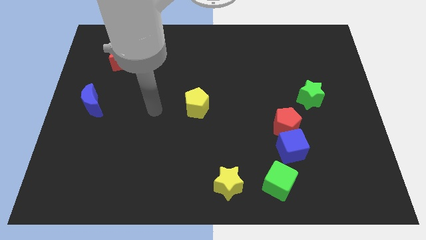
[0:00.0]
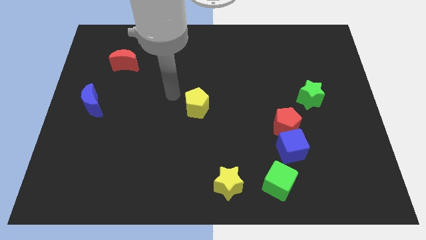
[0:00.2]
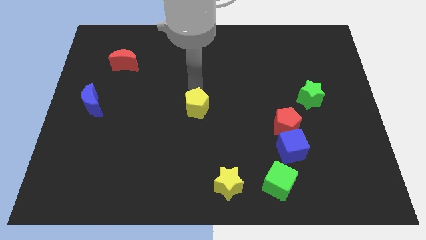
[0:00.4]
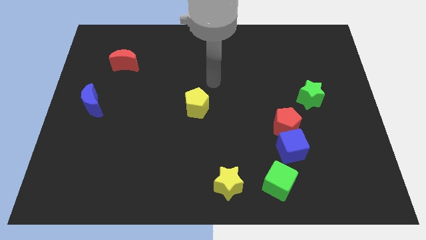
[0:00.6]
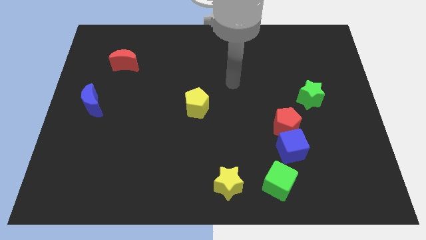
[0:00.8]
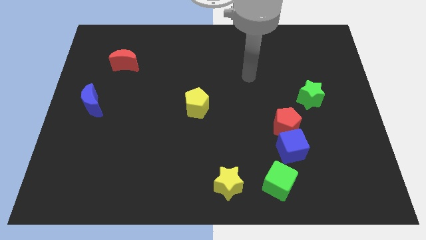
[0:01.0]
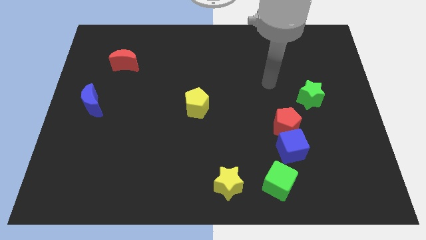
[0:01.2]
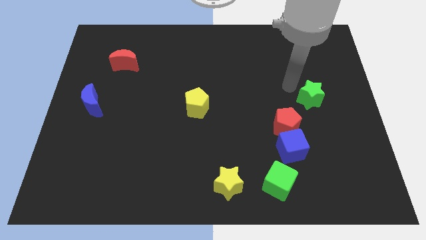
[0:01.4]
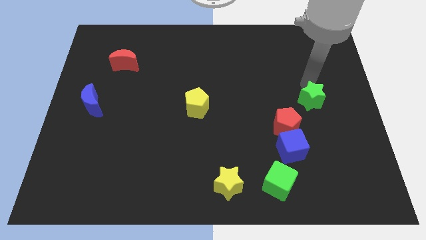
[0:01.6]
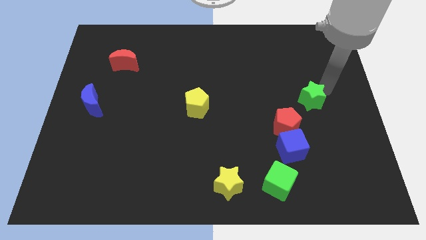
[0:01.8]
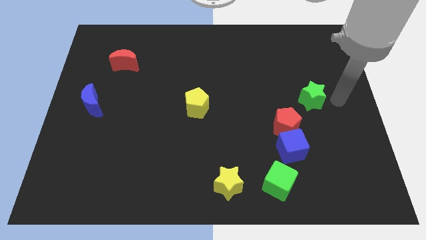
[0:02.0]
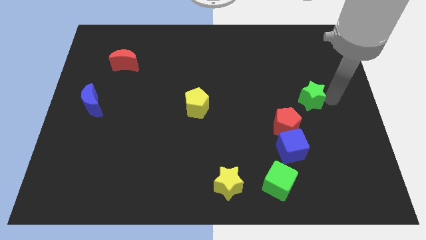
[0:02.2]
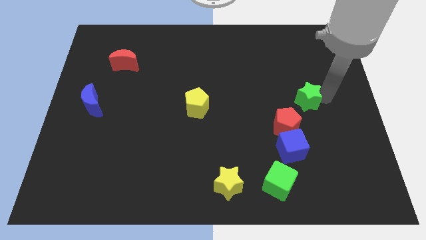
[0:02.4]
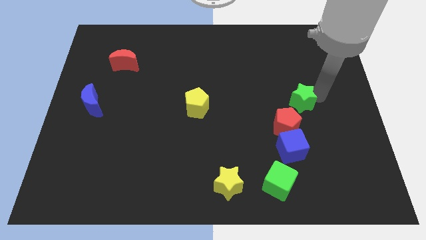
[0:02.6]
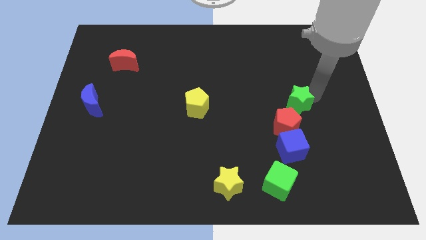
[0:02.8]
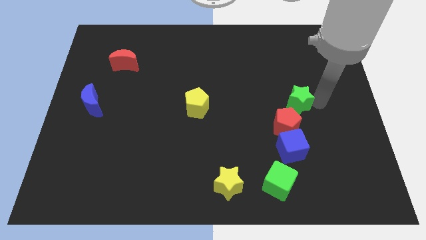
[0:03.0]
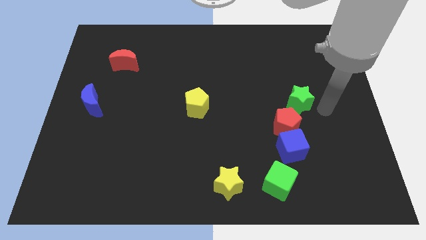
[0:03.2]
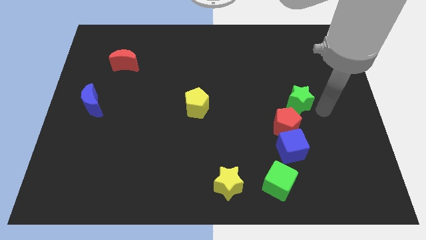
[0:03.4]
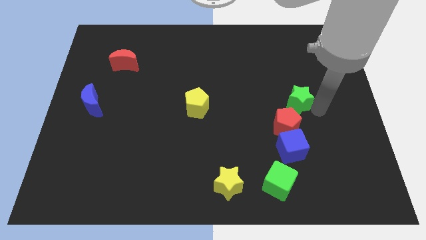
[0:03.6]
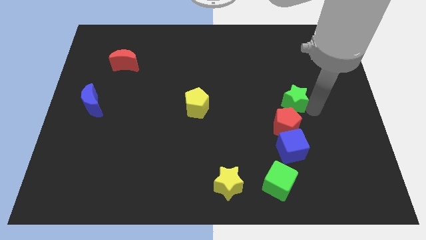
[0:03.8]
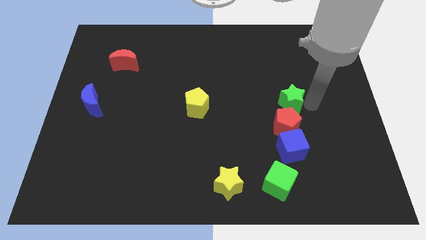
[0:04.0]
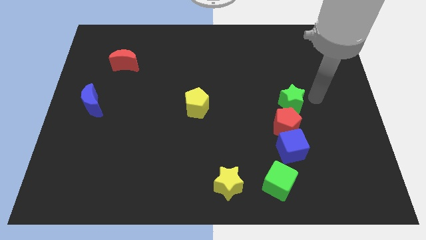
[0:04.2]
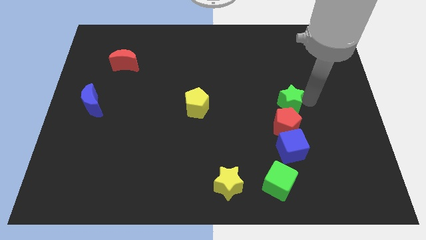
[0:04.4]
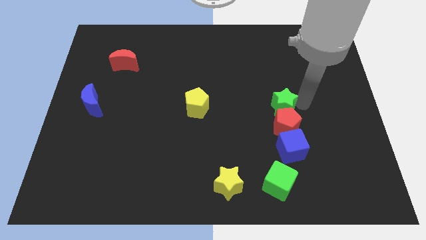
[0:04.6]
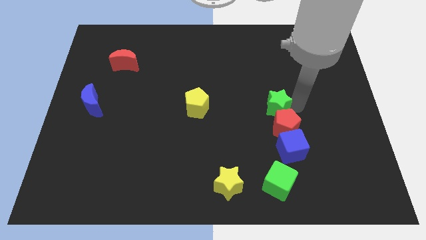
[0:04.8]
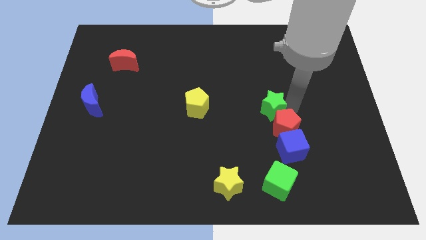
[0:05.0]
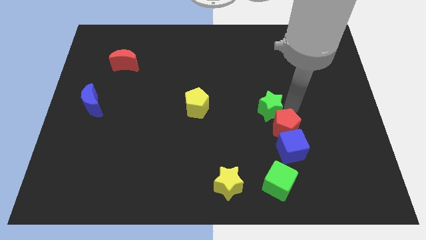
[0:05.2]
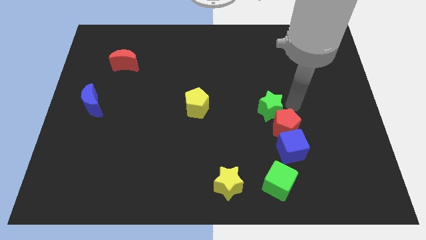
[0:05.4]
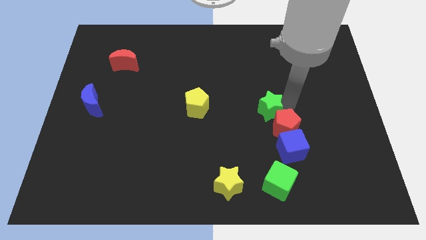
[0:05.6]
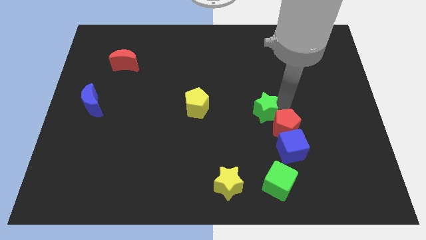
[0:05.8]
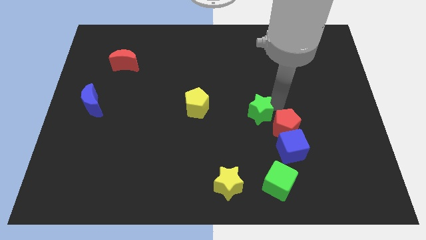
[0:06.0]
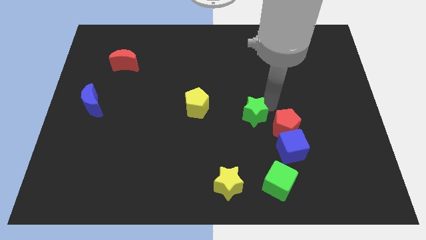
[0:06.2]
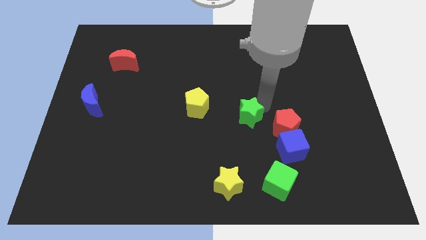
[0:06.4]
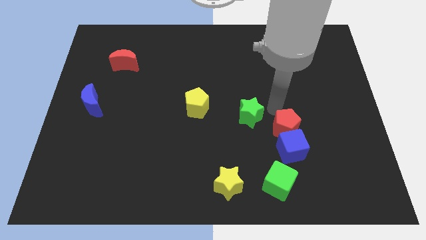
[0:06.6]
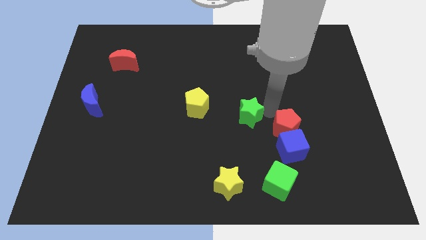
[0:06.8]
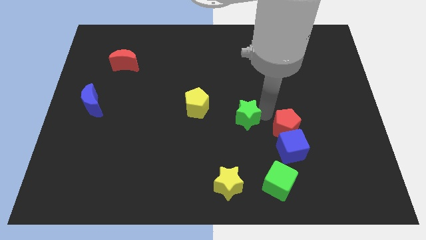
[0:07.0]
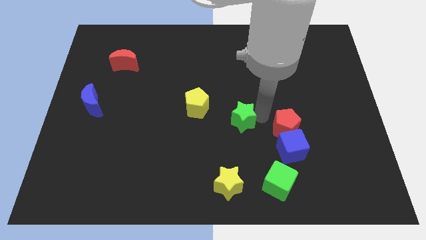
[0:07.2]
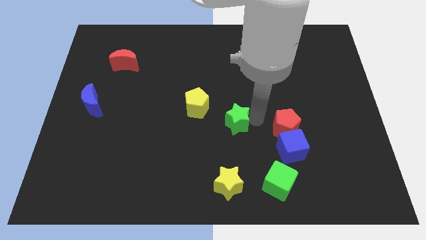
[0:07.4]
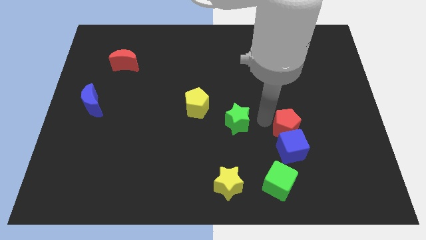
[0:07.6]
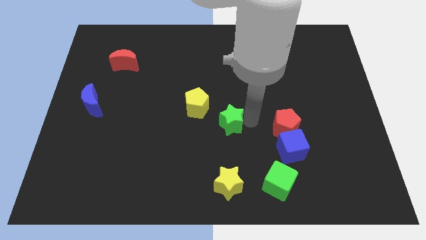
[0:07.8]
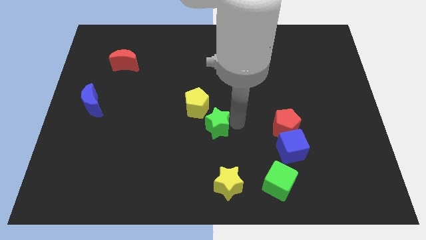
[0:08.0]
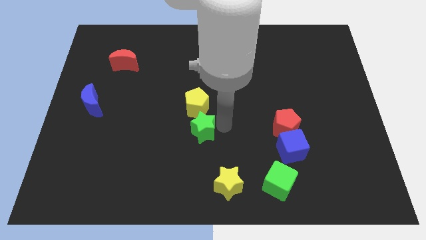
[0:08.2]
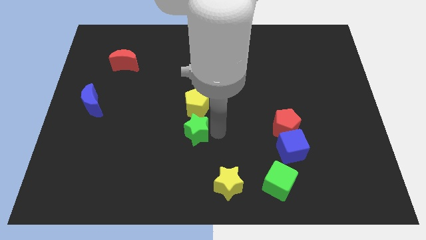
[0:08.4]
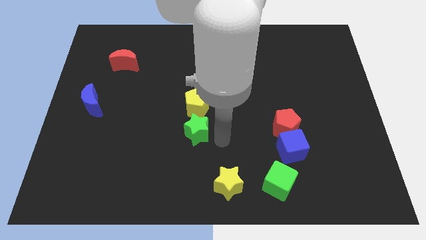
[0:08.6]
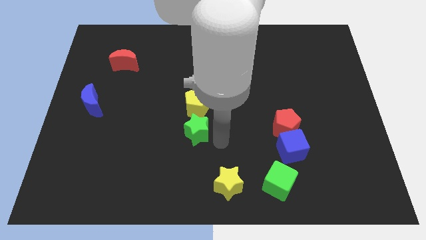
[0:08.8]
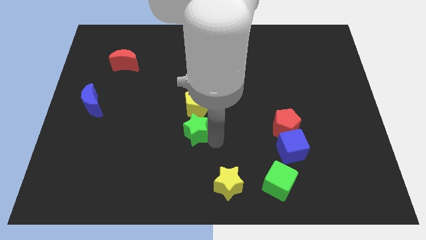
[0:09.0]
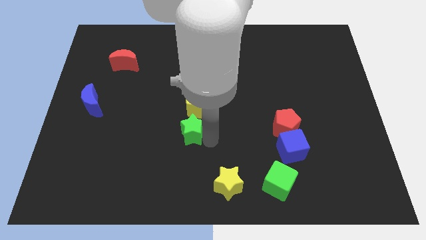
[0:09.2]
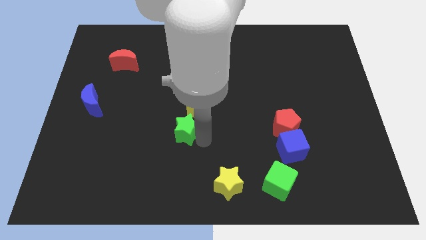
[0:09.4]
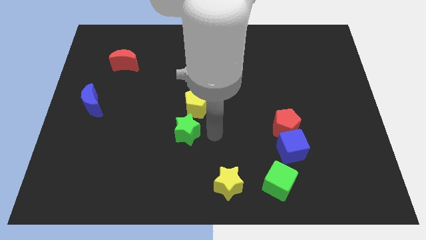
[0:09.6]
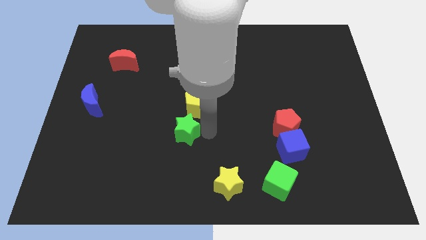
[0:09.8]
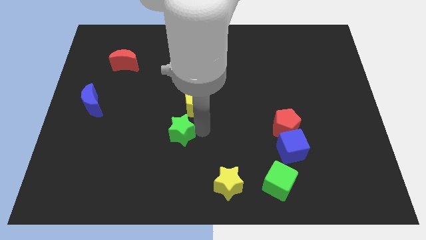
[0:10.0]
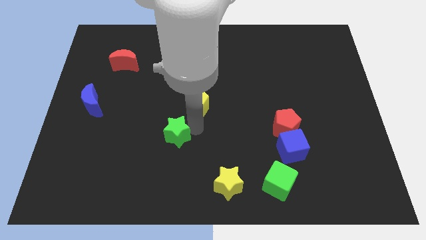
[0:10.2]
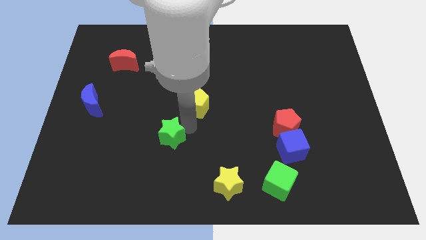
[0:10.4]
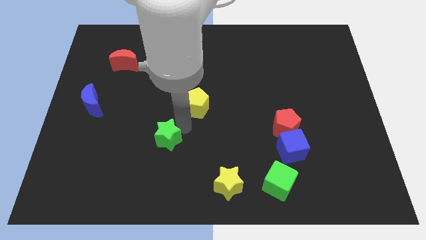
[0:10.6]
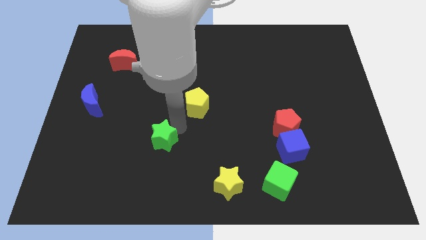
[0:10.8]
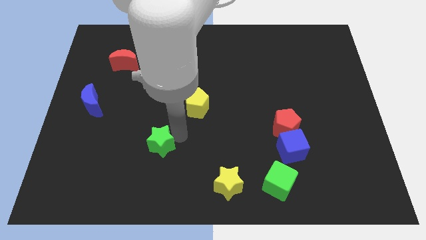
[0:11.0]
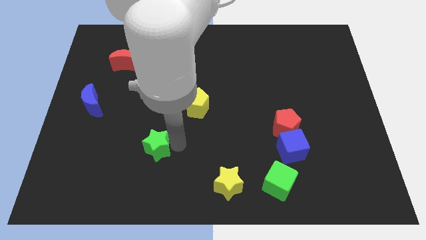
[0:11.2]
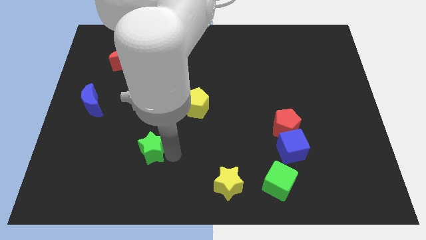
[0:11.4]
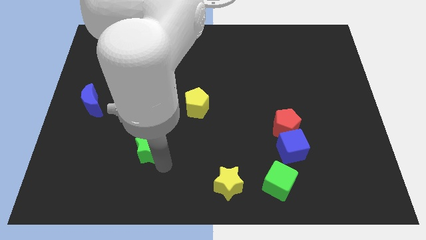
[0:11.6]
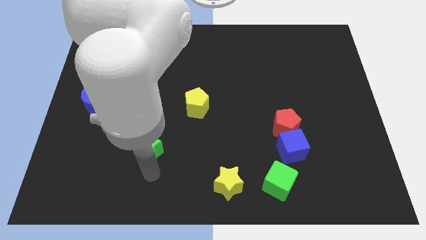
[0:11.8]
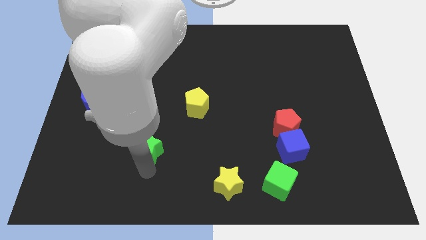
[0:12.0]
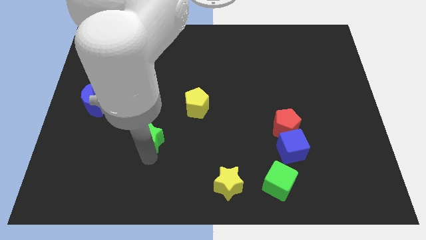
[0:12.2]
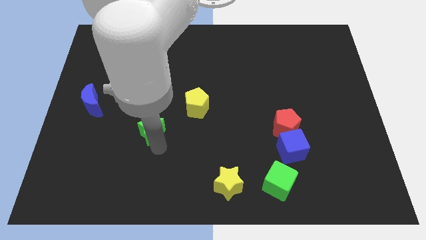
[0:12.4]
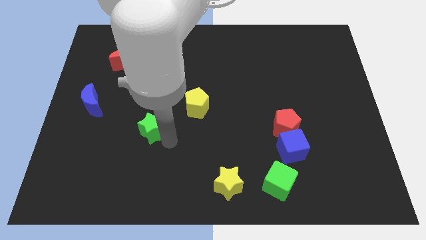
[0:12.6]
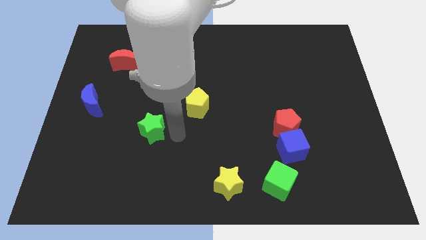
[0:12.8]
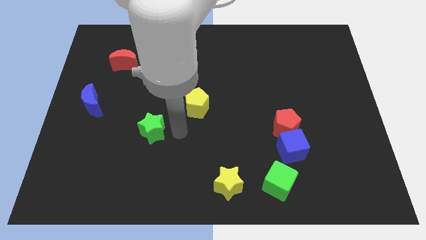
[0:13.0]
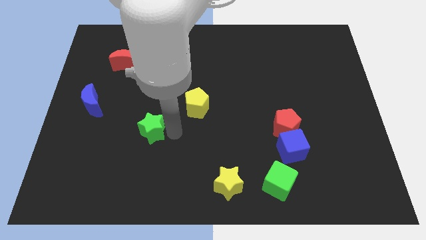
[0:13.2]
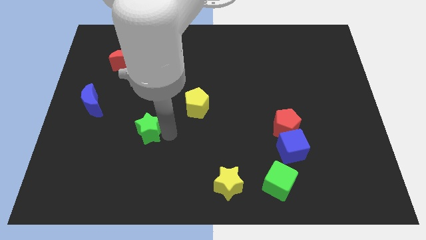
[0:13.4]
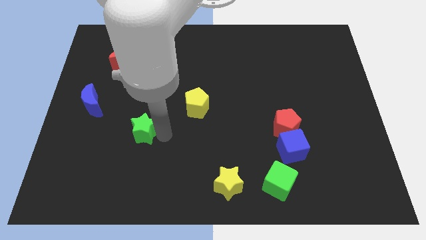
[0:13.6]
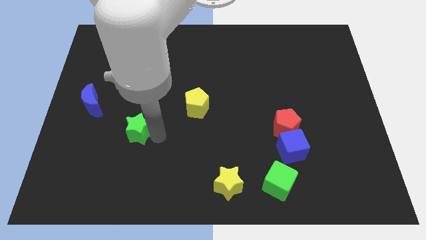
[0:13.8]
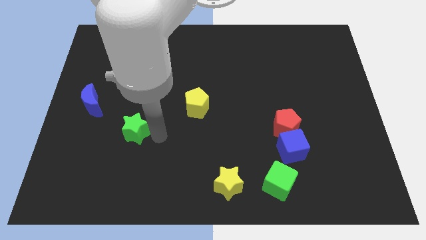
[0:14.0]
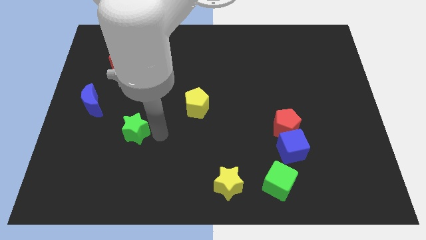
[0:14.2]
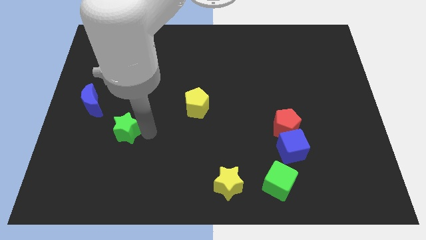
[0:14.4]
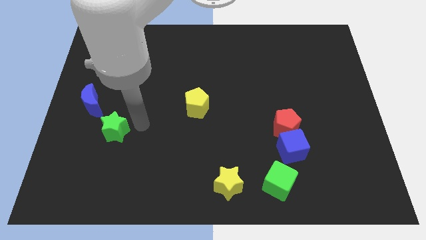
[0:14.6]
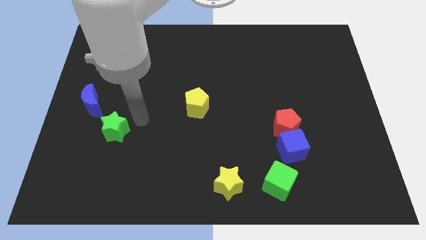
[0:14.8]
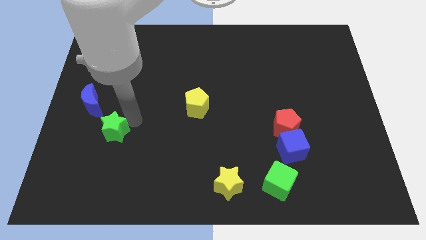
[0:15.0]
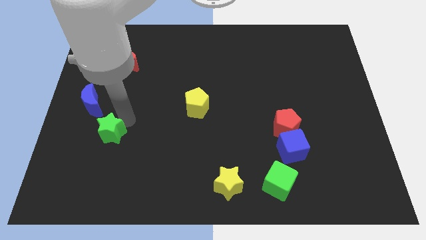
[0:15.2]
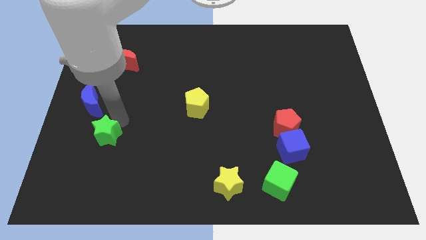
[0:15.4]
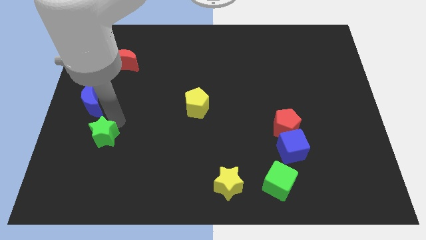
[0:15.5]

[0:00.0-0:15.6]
move the green star to the bottom of the blue moon
